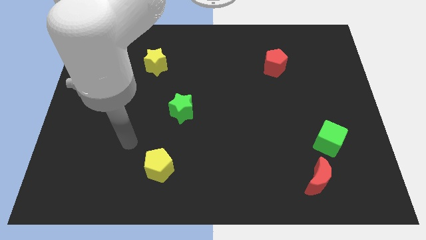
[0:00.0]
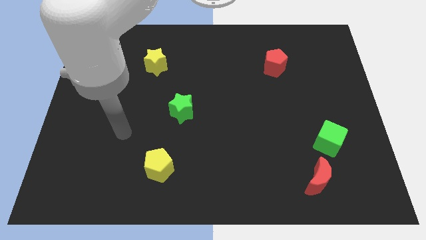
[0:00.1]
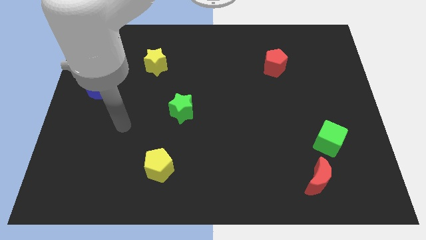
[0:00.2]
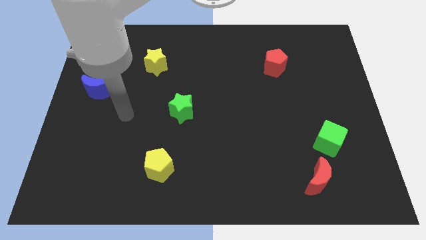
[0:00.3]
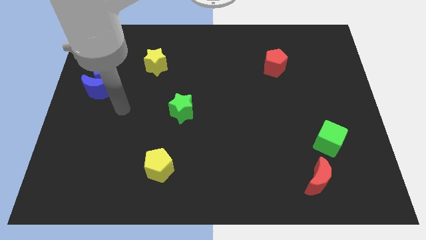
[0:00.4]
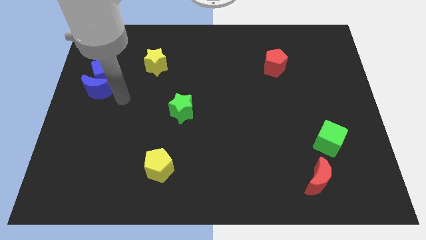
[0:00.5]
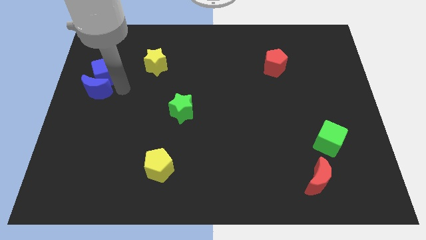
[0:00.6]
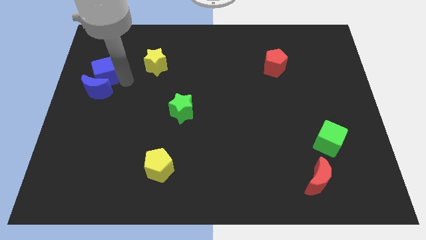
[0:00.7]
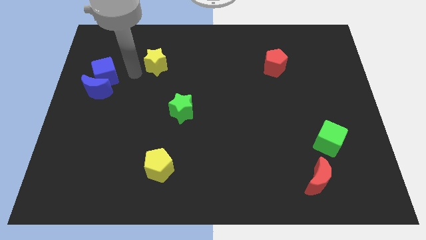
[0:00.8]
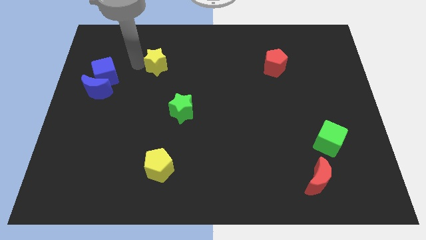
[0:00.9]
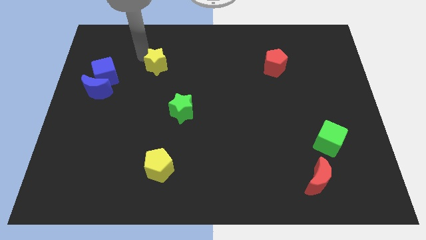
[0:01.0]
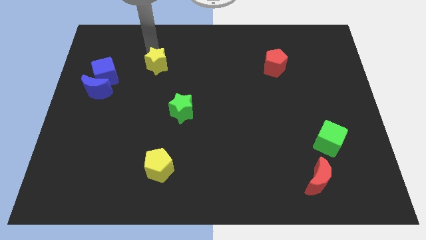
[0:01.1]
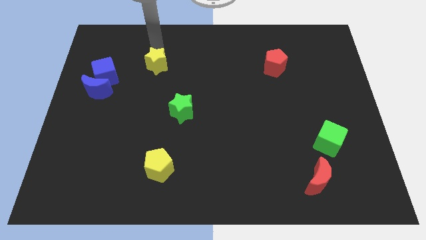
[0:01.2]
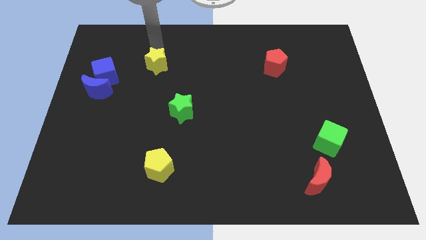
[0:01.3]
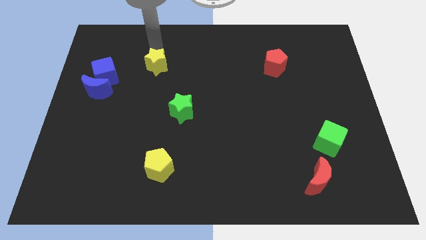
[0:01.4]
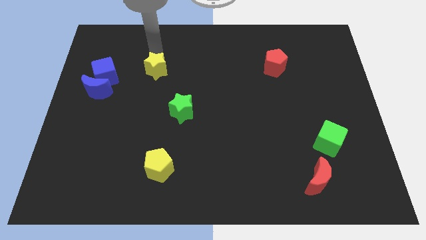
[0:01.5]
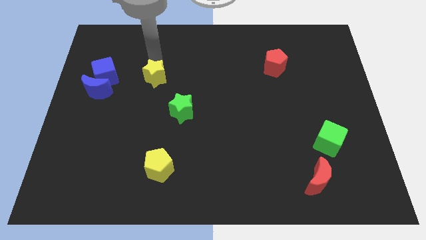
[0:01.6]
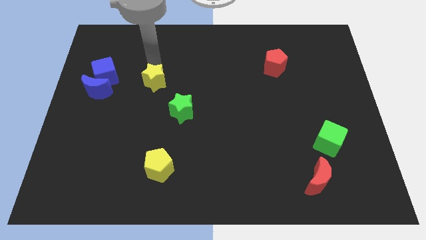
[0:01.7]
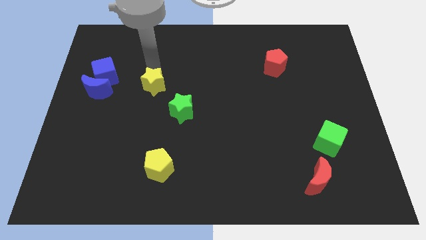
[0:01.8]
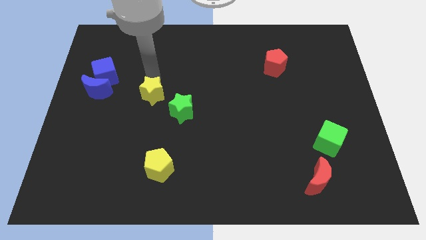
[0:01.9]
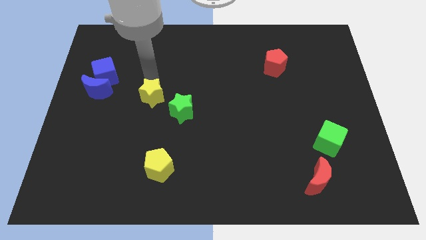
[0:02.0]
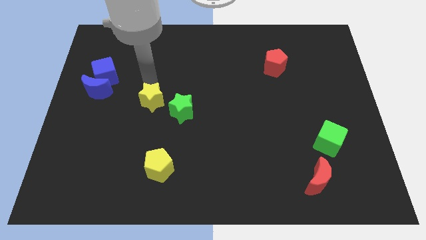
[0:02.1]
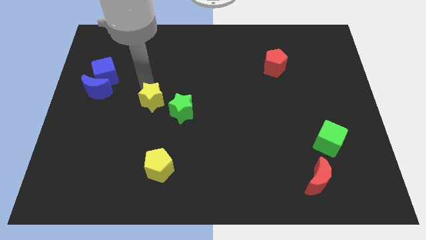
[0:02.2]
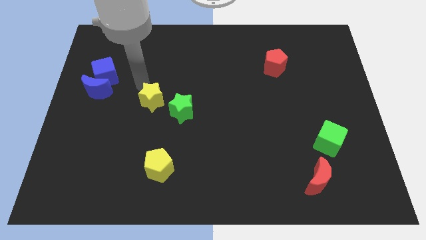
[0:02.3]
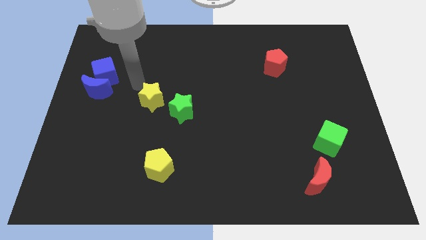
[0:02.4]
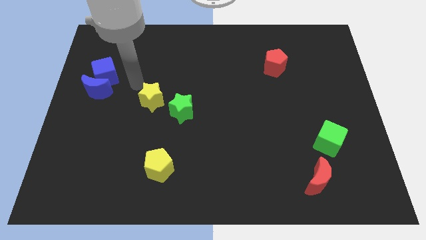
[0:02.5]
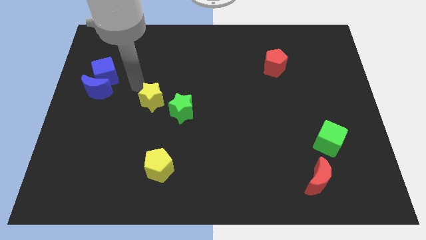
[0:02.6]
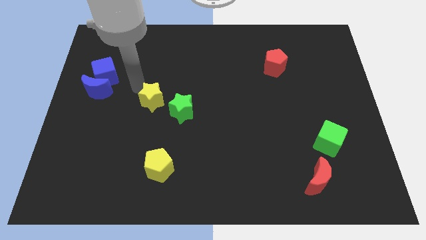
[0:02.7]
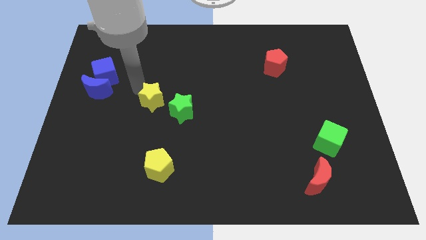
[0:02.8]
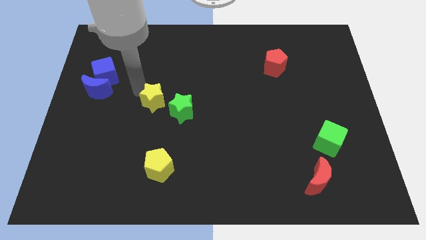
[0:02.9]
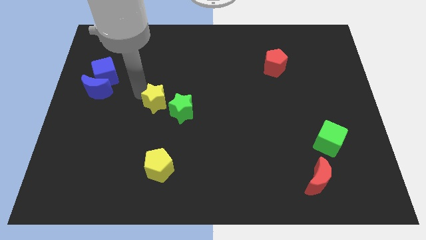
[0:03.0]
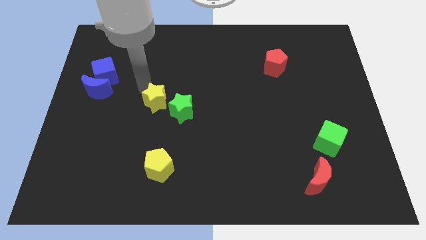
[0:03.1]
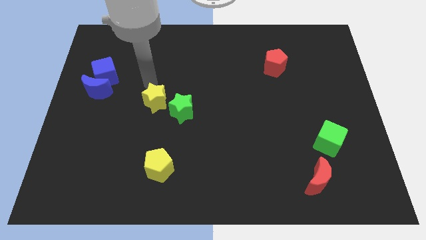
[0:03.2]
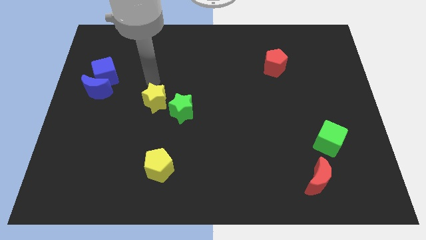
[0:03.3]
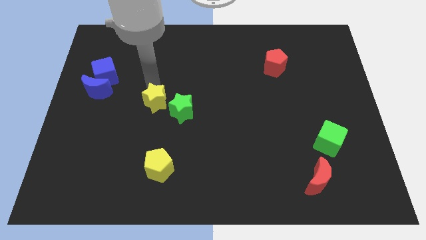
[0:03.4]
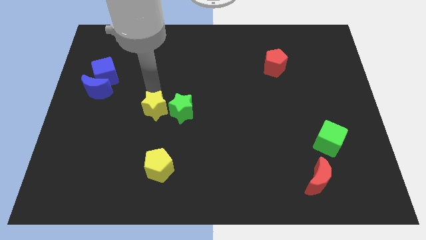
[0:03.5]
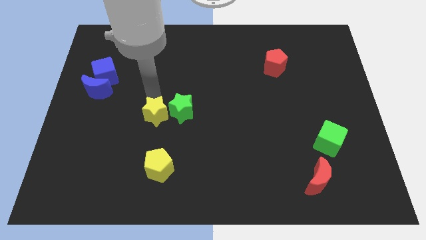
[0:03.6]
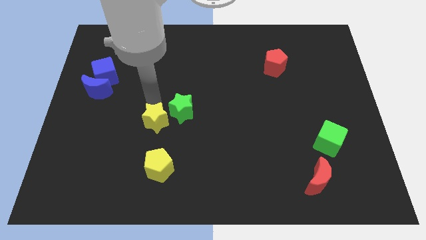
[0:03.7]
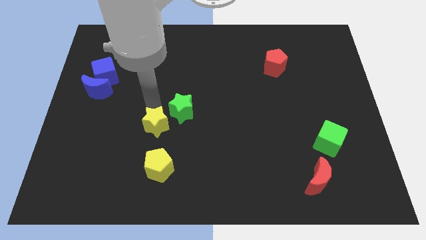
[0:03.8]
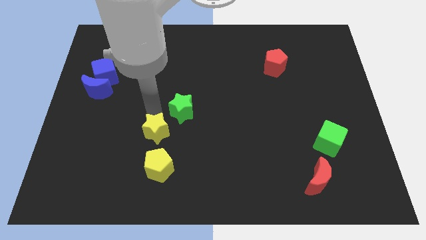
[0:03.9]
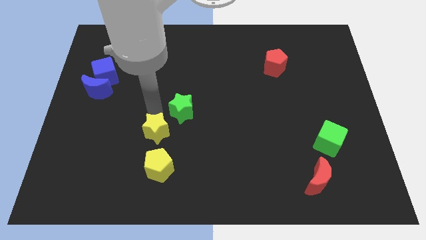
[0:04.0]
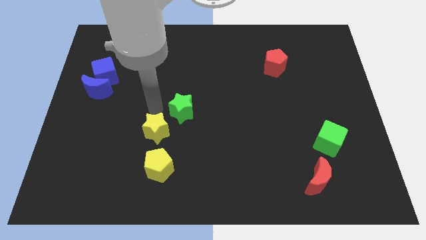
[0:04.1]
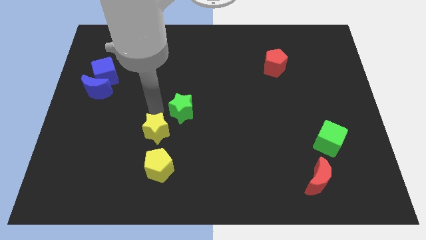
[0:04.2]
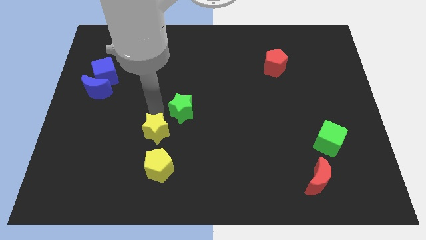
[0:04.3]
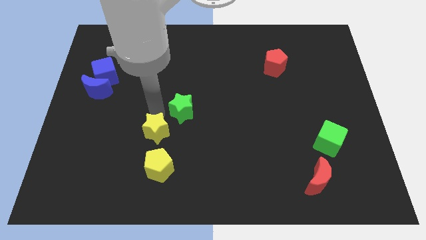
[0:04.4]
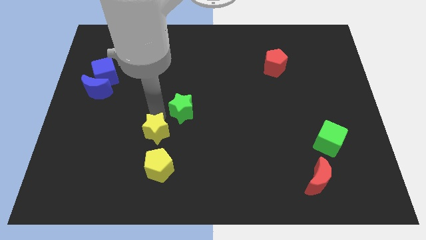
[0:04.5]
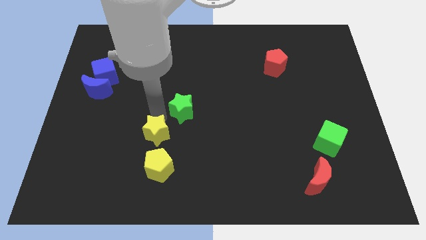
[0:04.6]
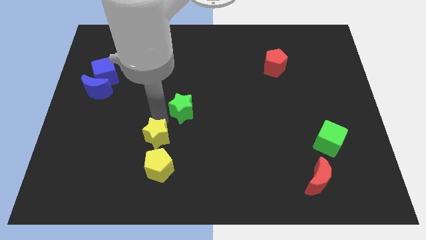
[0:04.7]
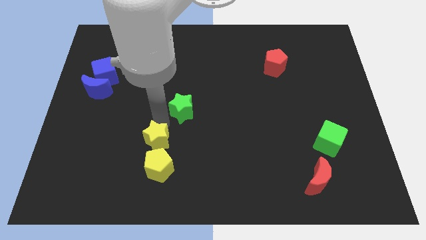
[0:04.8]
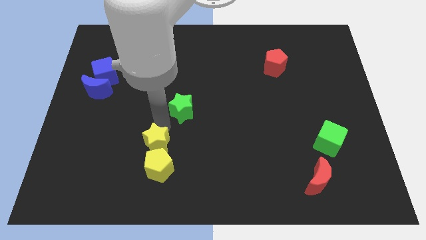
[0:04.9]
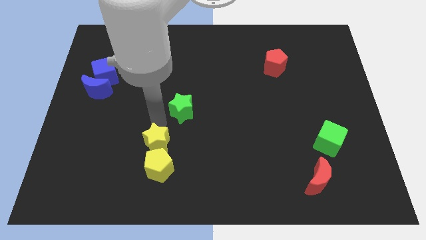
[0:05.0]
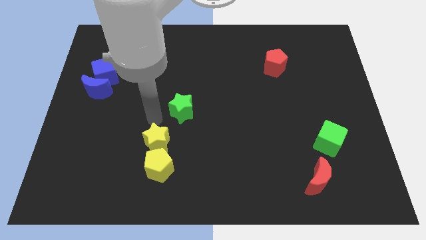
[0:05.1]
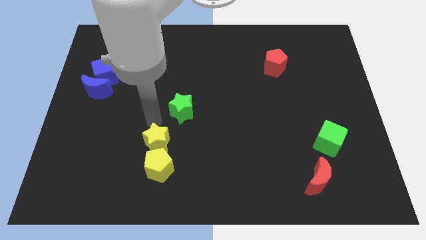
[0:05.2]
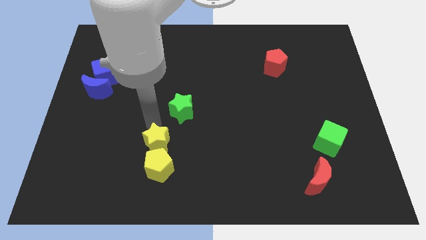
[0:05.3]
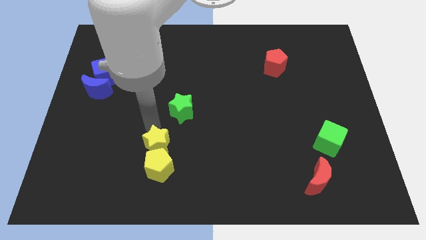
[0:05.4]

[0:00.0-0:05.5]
push the yellow star close to the yellow pentagon

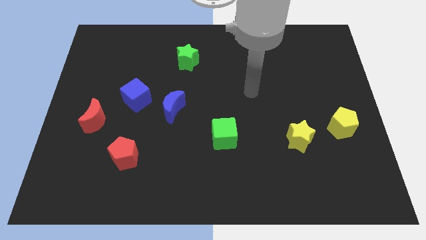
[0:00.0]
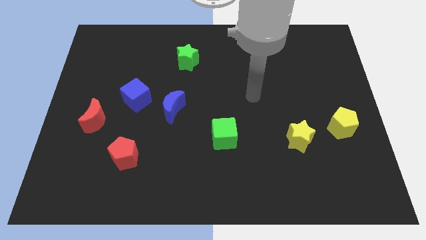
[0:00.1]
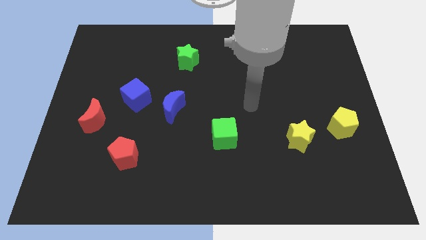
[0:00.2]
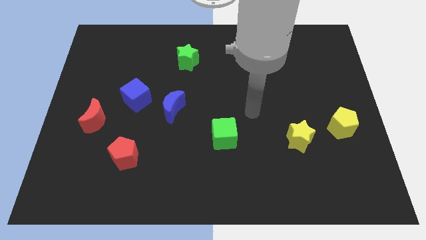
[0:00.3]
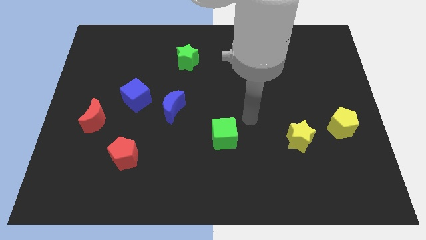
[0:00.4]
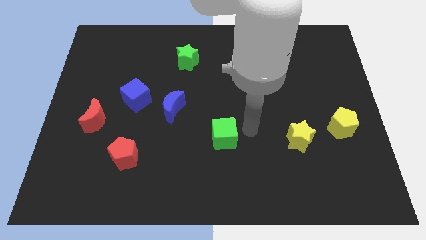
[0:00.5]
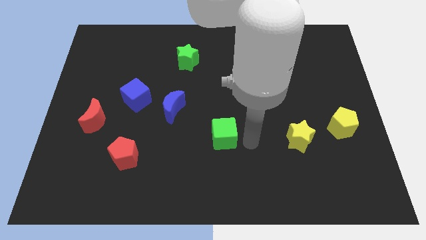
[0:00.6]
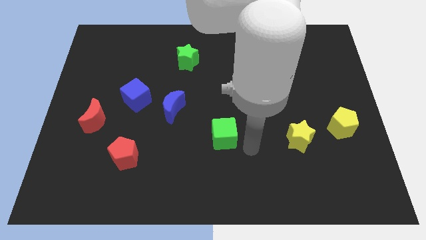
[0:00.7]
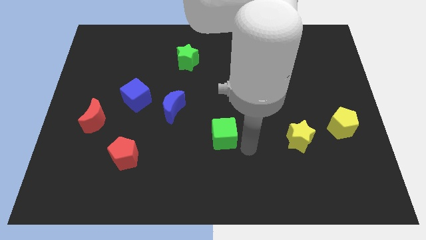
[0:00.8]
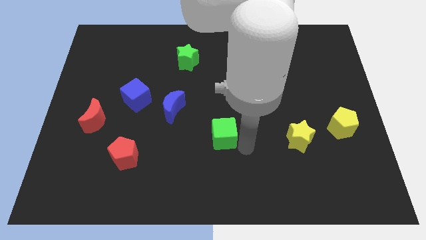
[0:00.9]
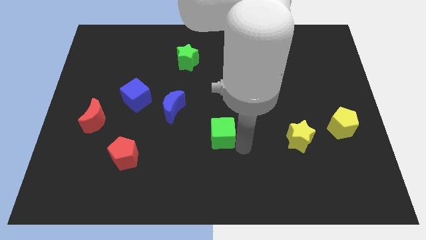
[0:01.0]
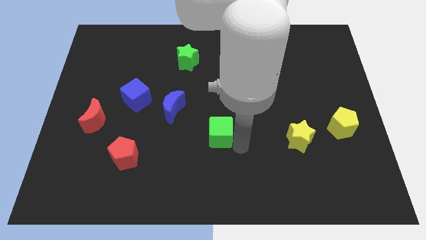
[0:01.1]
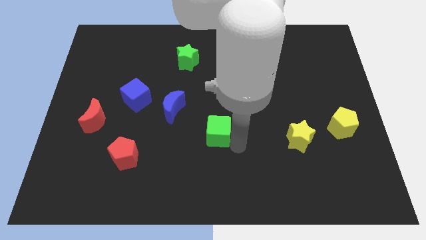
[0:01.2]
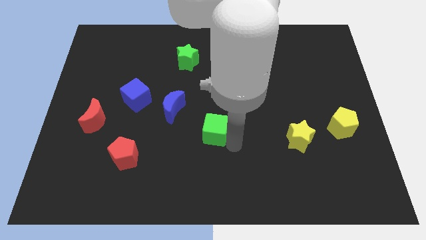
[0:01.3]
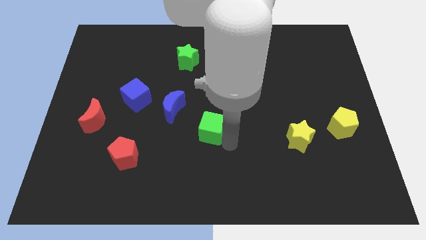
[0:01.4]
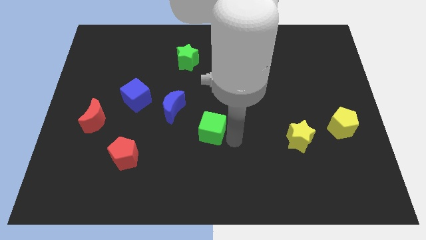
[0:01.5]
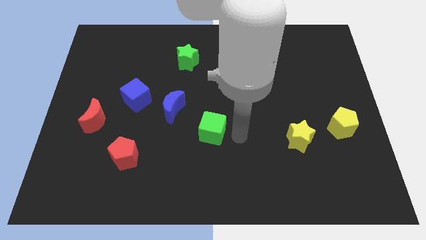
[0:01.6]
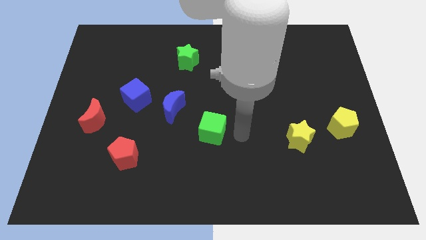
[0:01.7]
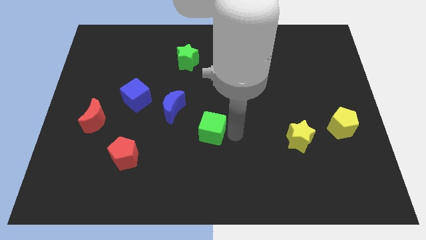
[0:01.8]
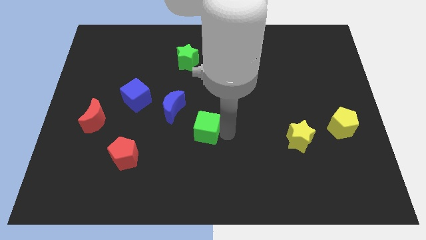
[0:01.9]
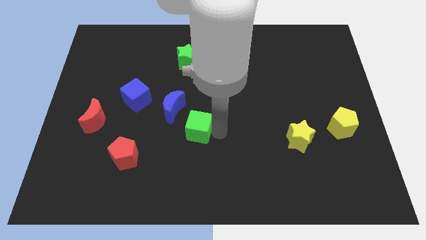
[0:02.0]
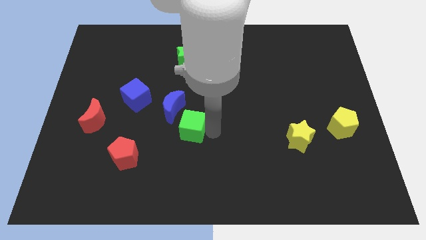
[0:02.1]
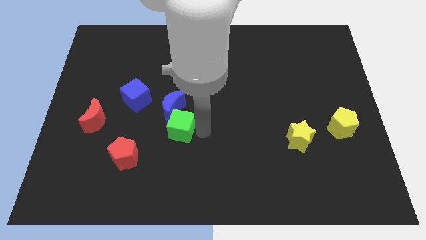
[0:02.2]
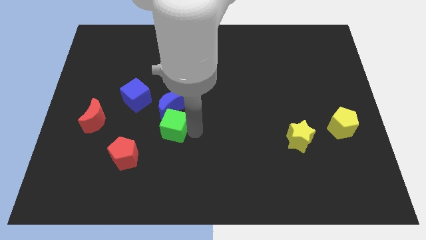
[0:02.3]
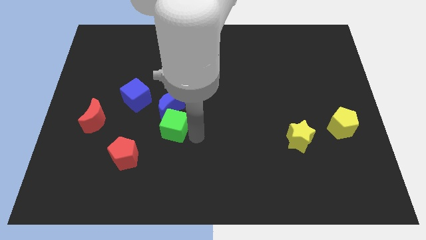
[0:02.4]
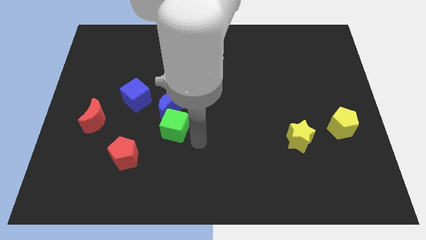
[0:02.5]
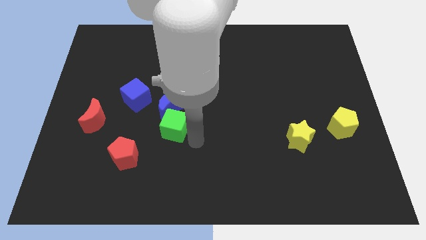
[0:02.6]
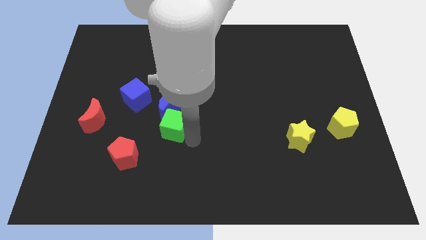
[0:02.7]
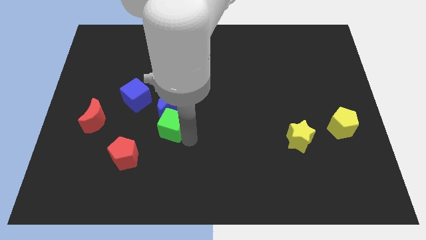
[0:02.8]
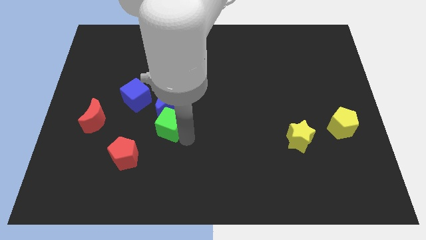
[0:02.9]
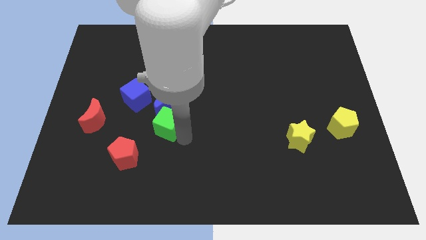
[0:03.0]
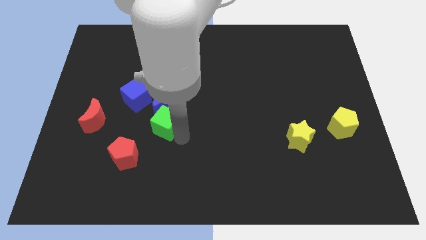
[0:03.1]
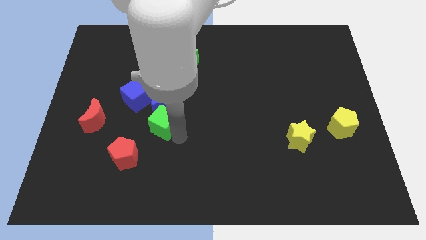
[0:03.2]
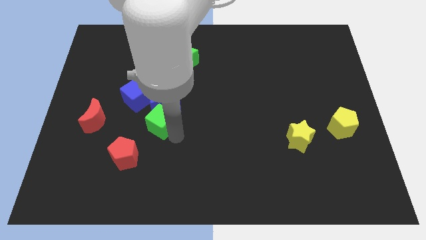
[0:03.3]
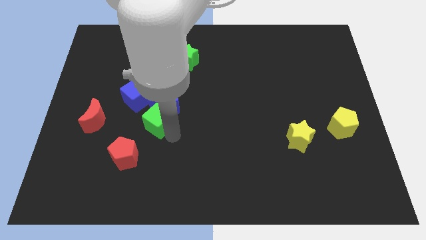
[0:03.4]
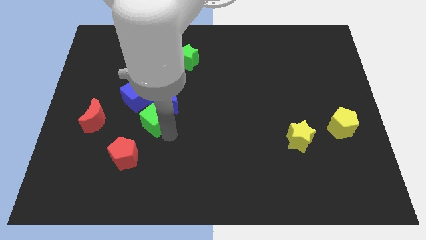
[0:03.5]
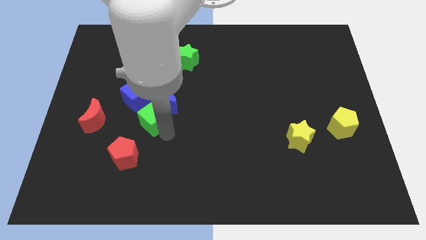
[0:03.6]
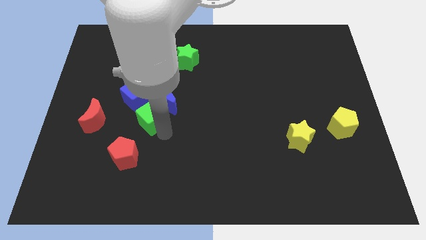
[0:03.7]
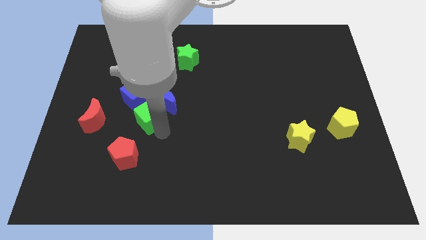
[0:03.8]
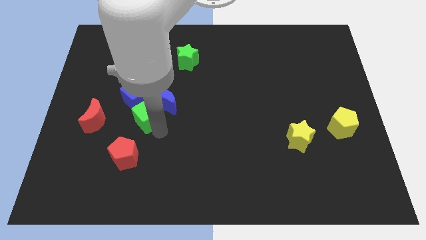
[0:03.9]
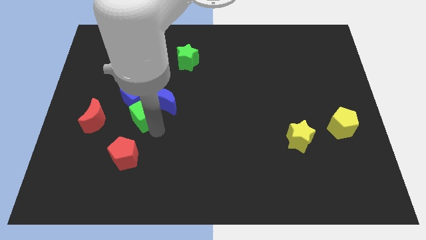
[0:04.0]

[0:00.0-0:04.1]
slide the green cube to the blue cube
